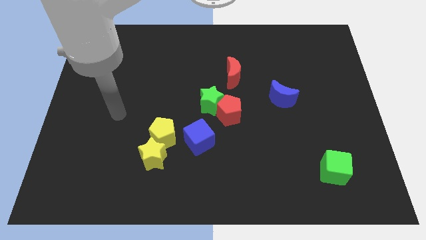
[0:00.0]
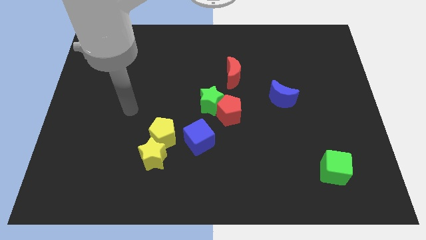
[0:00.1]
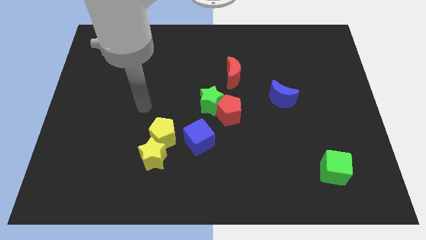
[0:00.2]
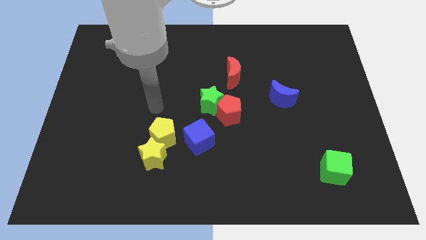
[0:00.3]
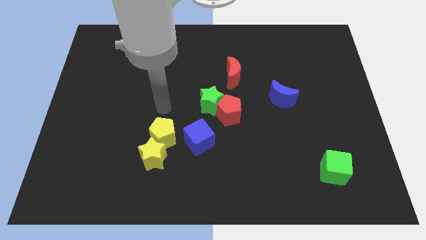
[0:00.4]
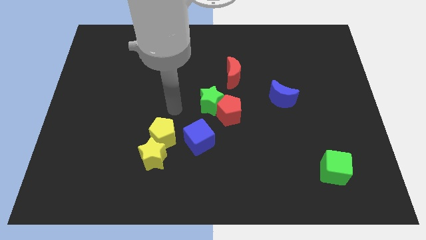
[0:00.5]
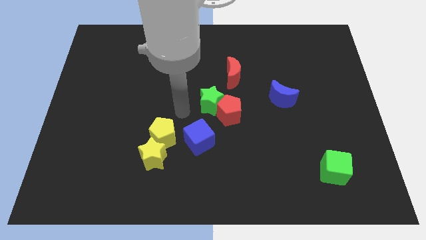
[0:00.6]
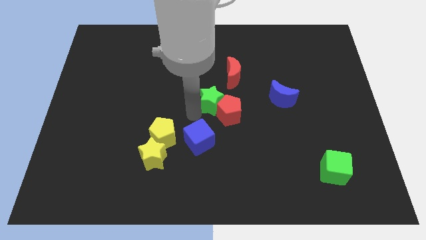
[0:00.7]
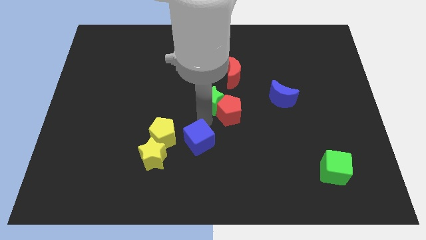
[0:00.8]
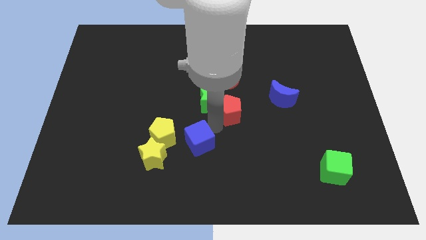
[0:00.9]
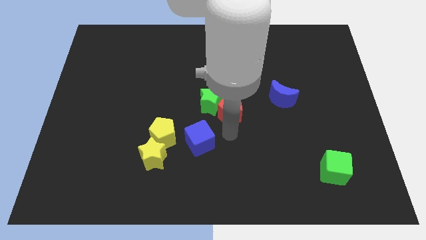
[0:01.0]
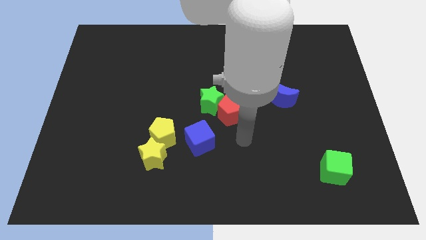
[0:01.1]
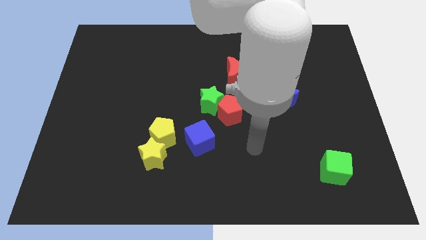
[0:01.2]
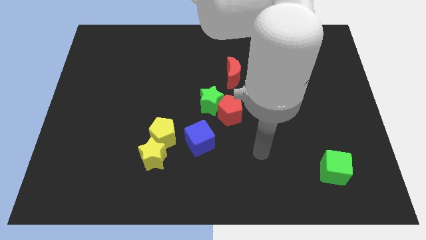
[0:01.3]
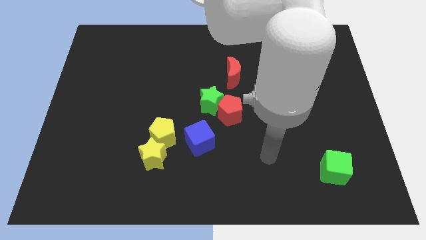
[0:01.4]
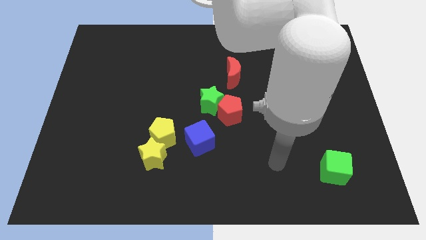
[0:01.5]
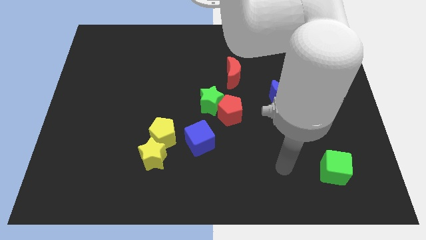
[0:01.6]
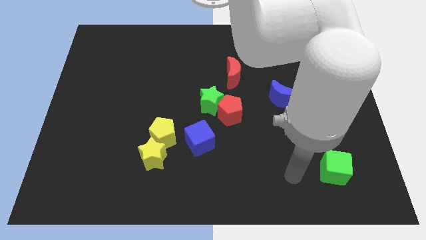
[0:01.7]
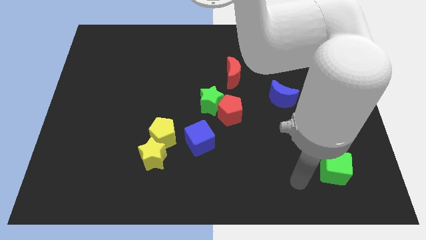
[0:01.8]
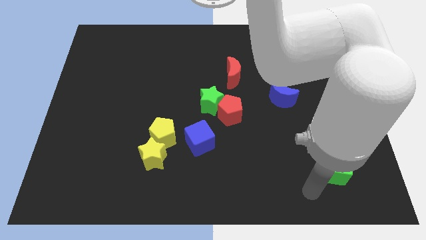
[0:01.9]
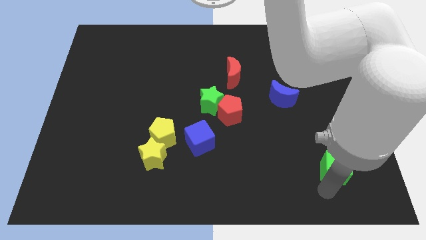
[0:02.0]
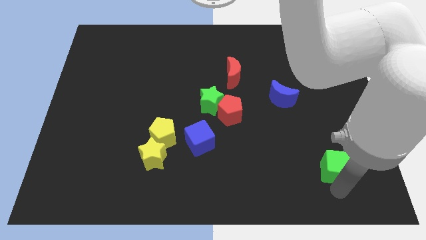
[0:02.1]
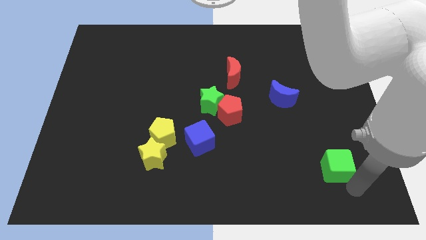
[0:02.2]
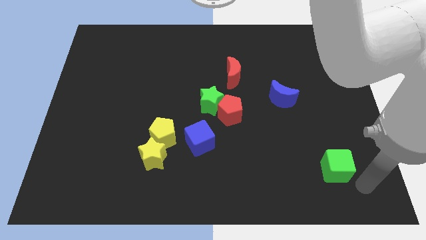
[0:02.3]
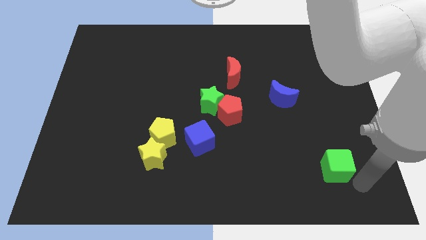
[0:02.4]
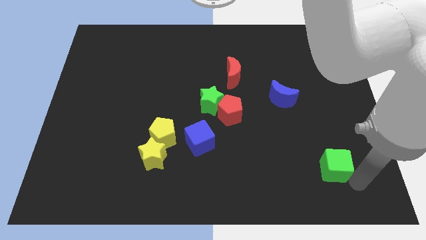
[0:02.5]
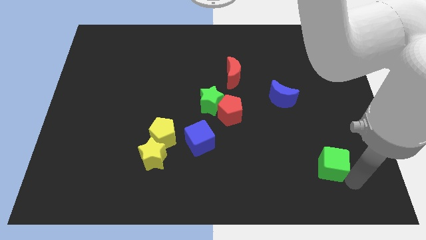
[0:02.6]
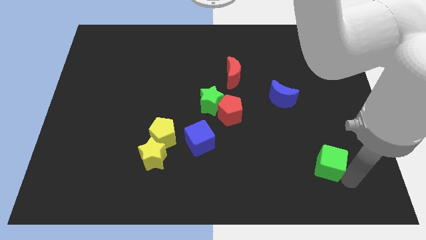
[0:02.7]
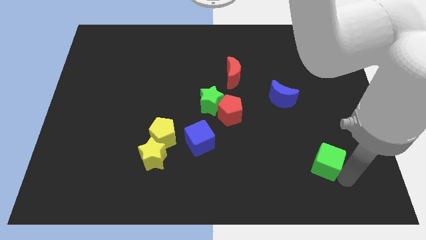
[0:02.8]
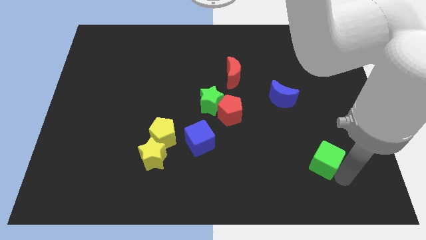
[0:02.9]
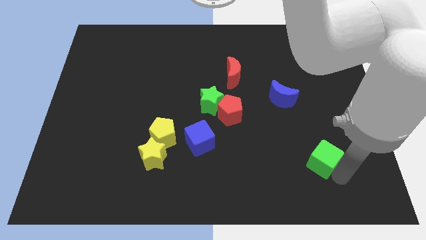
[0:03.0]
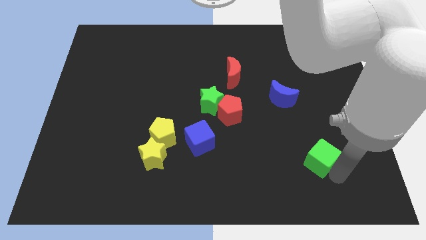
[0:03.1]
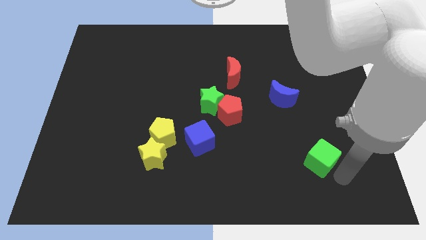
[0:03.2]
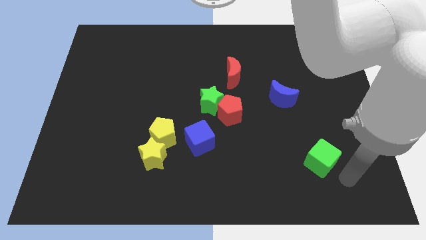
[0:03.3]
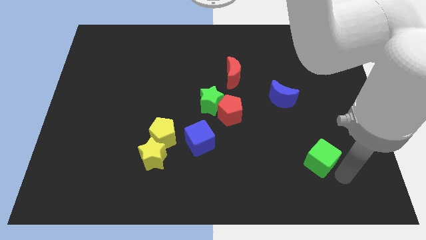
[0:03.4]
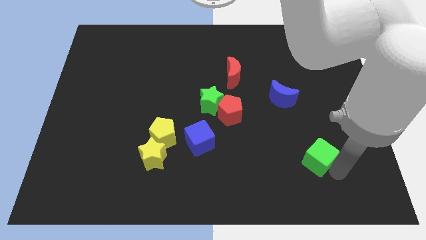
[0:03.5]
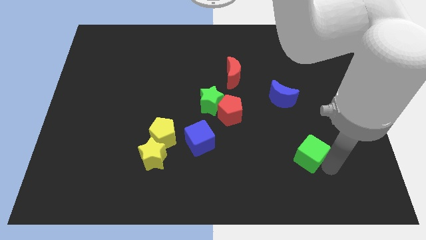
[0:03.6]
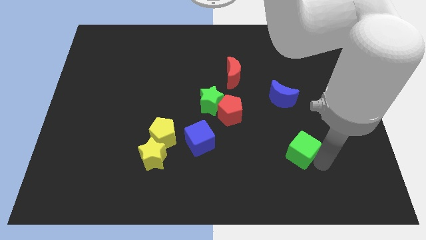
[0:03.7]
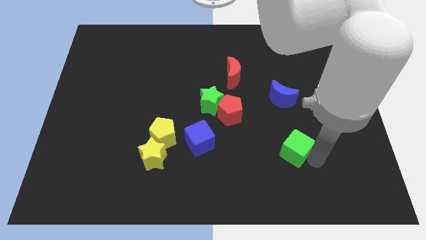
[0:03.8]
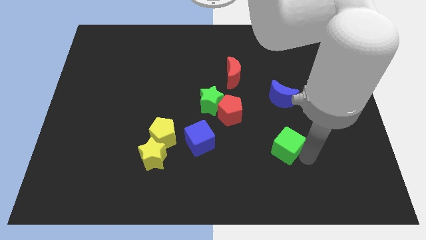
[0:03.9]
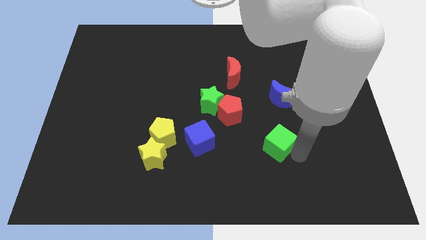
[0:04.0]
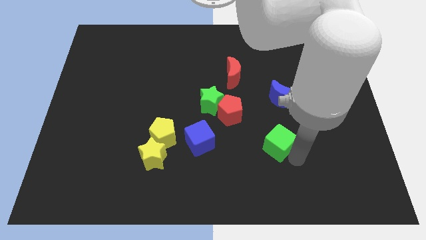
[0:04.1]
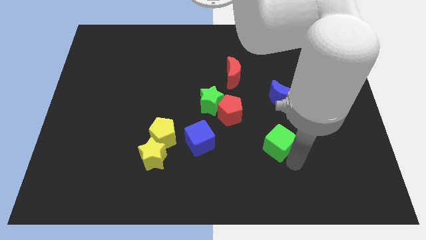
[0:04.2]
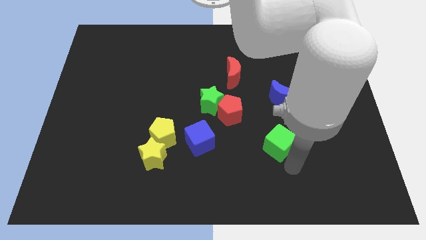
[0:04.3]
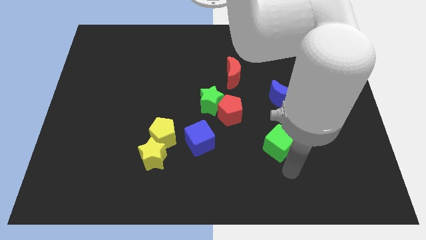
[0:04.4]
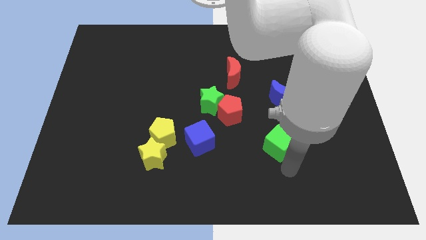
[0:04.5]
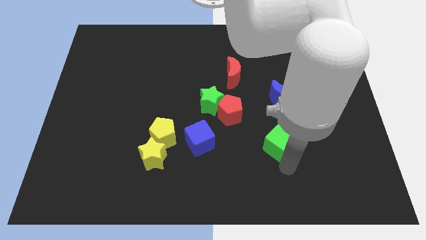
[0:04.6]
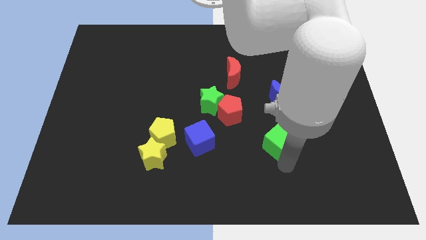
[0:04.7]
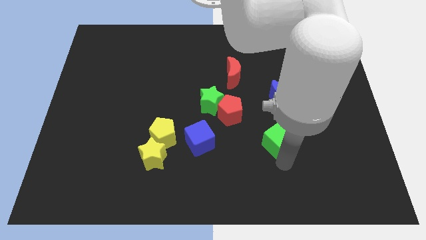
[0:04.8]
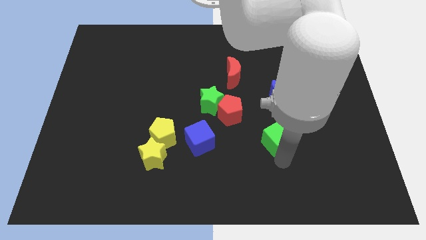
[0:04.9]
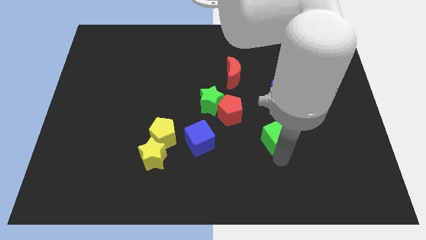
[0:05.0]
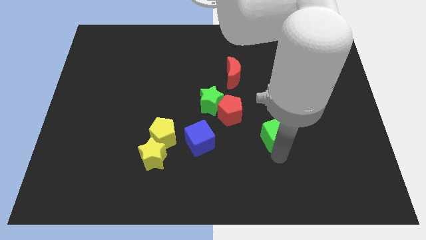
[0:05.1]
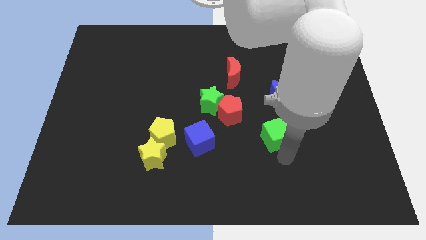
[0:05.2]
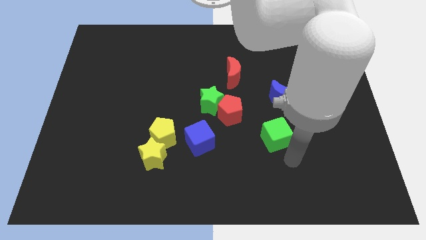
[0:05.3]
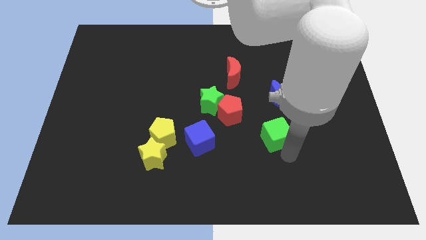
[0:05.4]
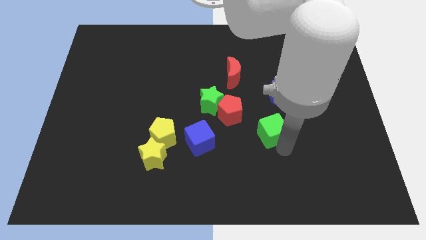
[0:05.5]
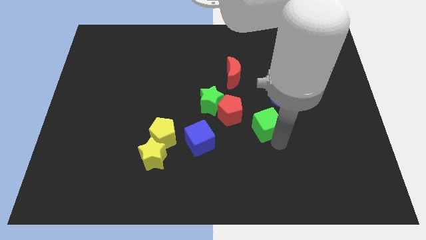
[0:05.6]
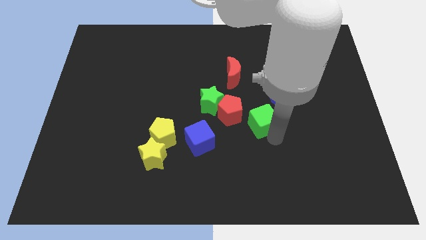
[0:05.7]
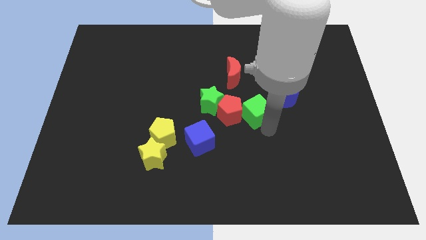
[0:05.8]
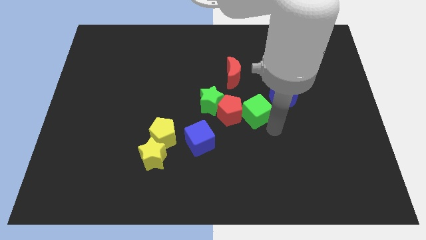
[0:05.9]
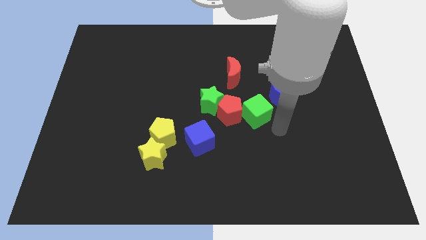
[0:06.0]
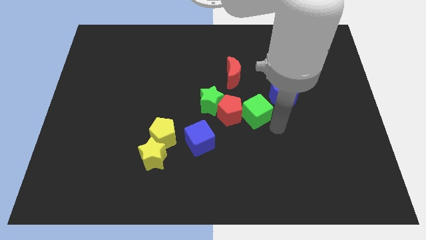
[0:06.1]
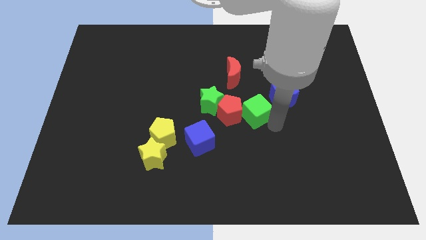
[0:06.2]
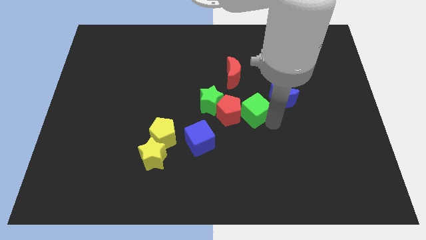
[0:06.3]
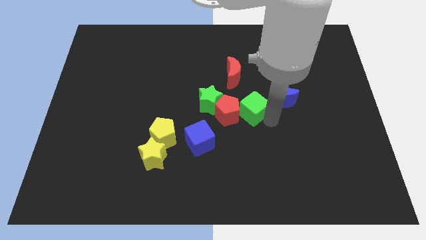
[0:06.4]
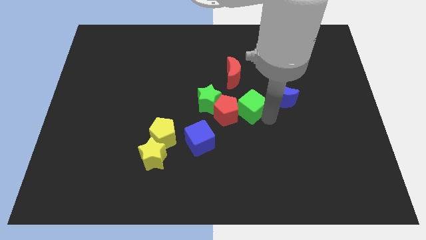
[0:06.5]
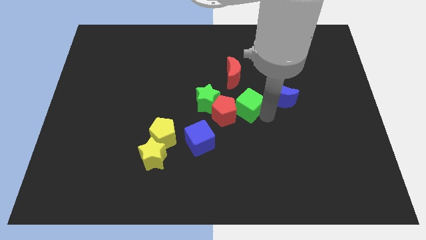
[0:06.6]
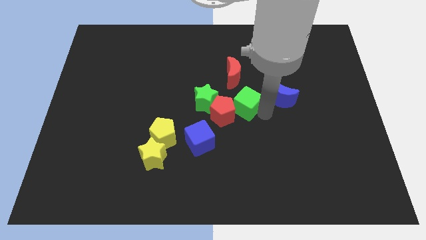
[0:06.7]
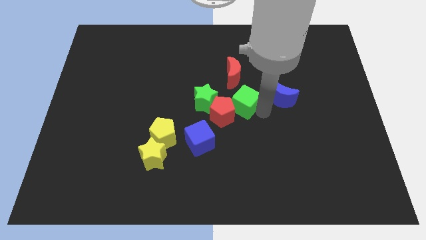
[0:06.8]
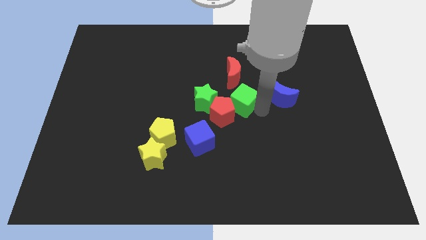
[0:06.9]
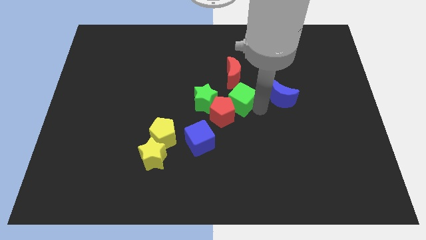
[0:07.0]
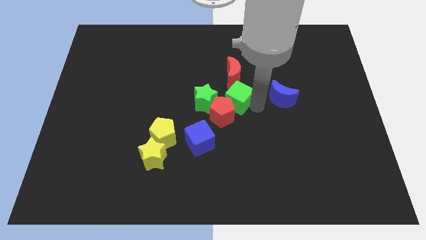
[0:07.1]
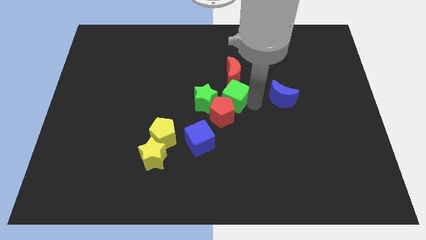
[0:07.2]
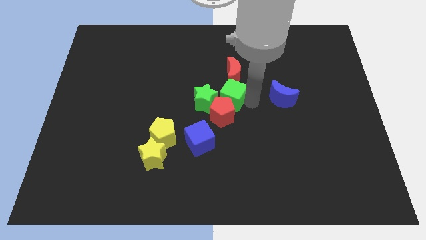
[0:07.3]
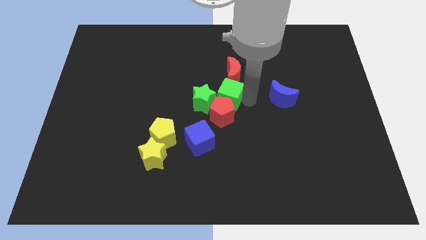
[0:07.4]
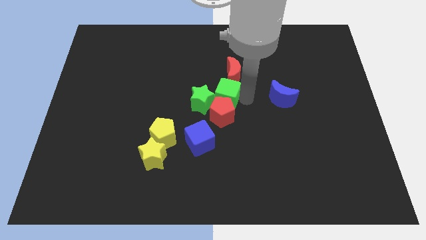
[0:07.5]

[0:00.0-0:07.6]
slide the green cube close to the green star
